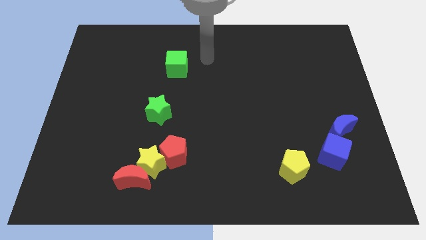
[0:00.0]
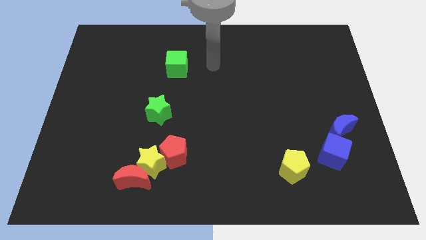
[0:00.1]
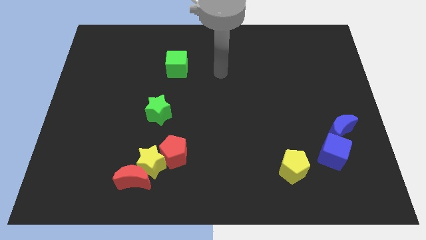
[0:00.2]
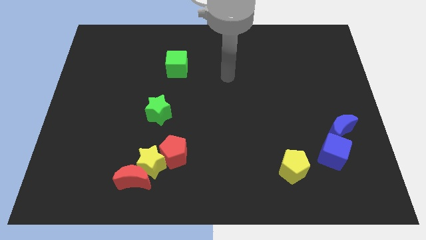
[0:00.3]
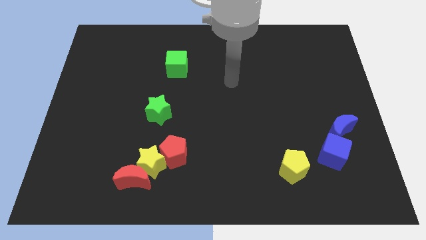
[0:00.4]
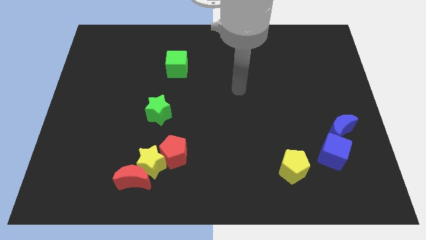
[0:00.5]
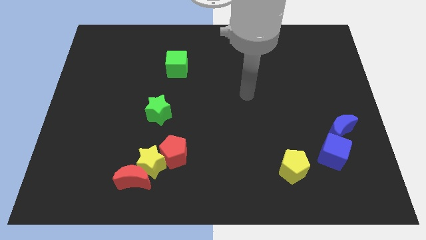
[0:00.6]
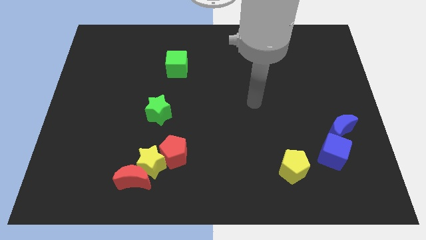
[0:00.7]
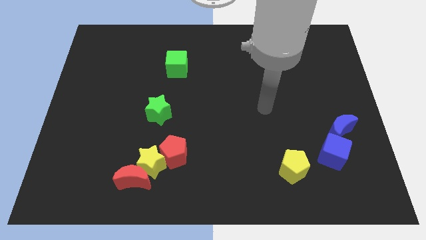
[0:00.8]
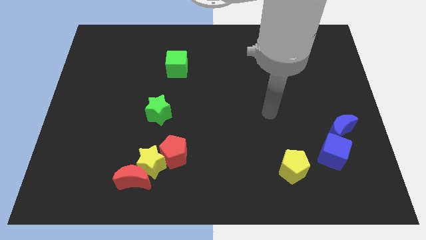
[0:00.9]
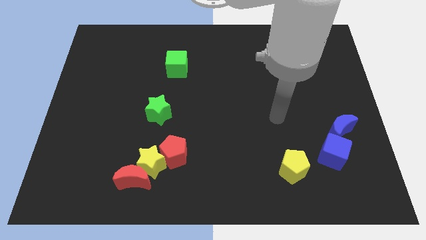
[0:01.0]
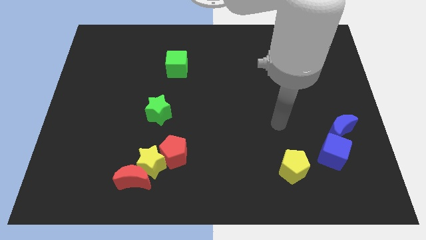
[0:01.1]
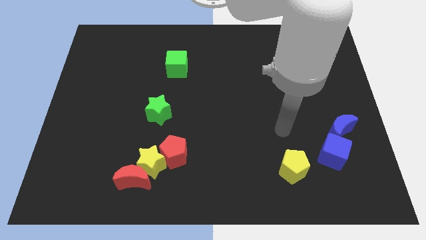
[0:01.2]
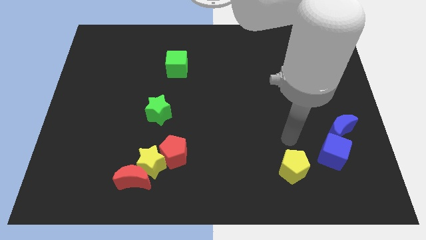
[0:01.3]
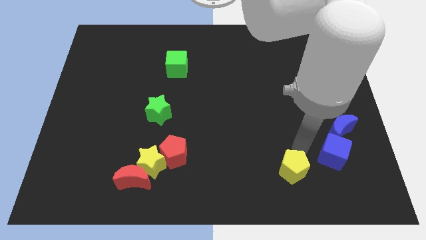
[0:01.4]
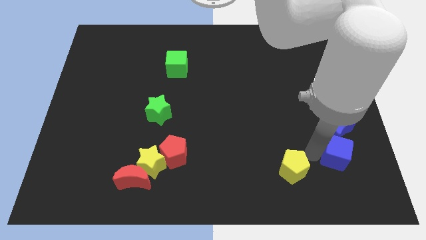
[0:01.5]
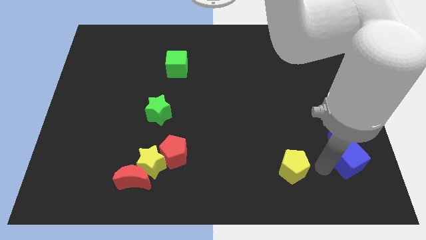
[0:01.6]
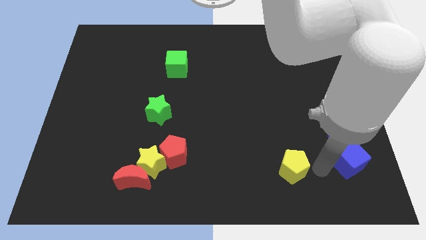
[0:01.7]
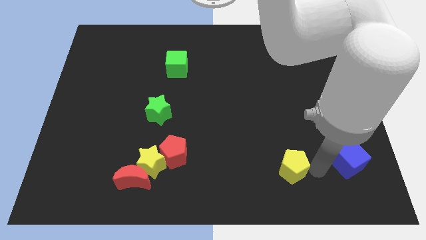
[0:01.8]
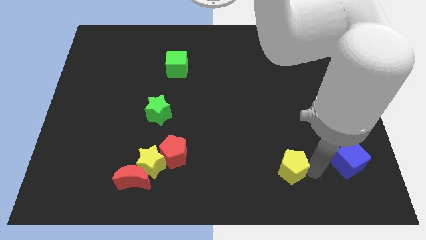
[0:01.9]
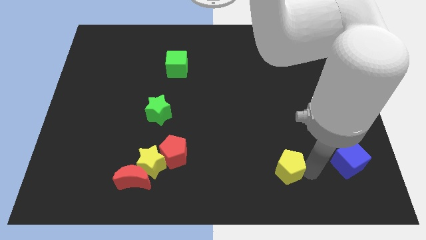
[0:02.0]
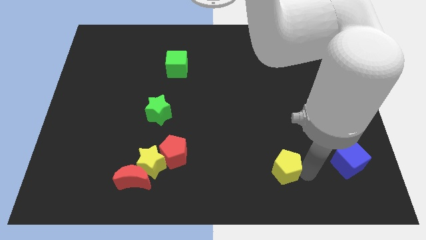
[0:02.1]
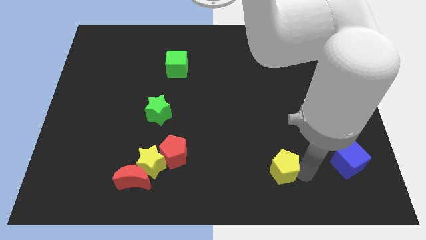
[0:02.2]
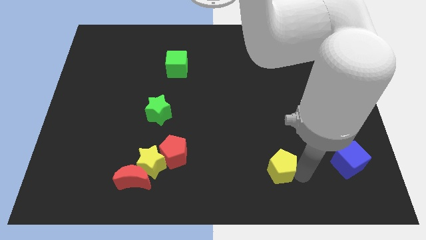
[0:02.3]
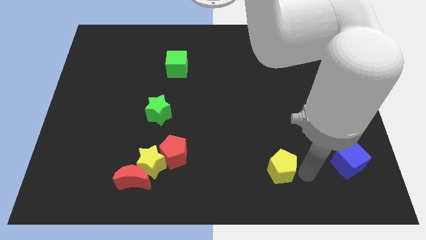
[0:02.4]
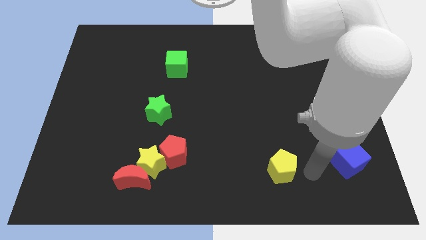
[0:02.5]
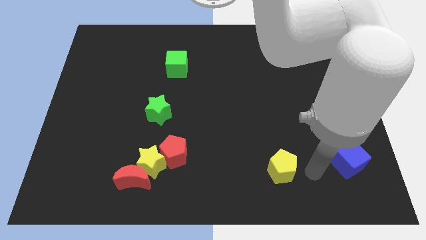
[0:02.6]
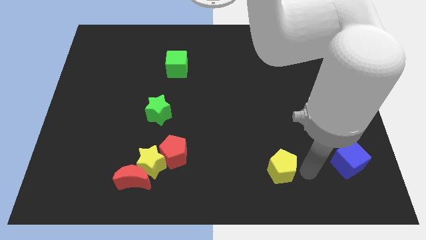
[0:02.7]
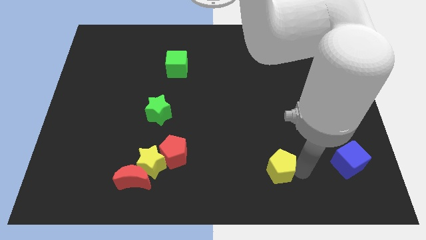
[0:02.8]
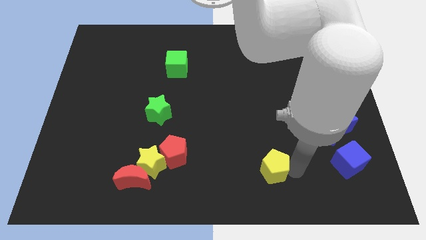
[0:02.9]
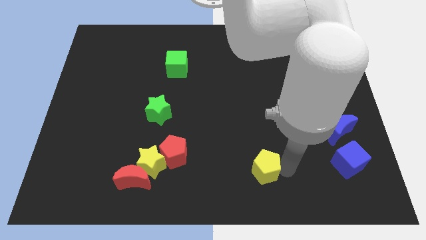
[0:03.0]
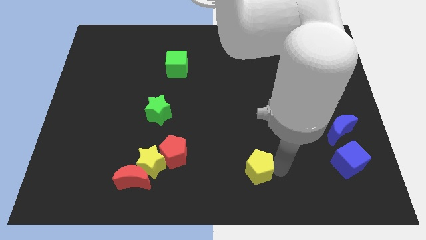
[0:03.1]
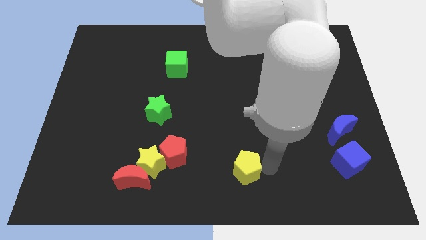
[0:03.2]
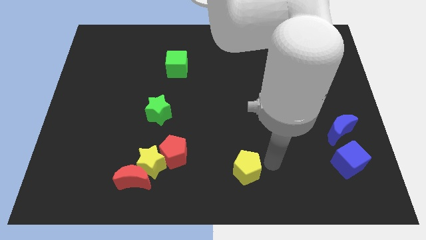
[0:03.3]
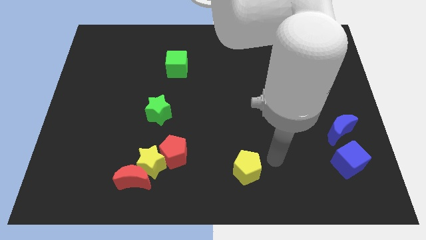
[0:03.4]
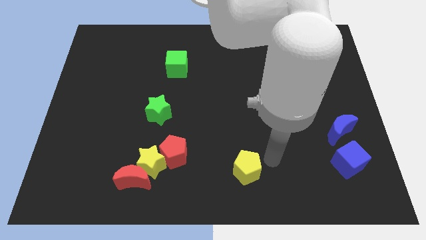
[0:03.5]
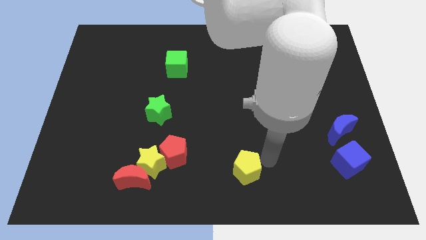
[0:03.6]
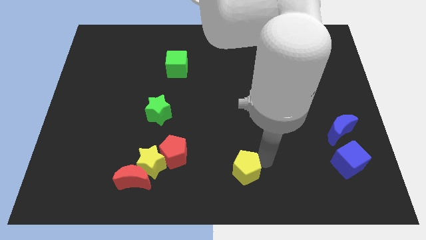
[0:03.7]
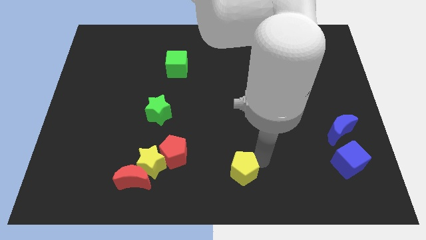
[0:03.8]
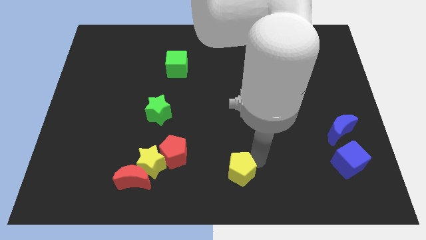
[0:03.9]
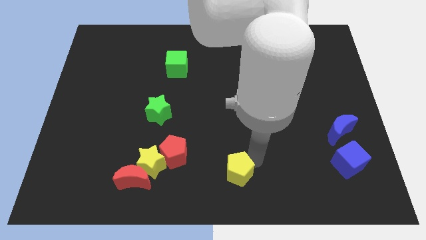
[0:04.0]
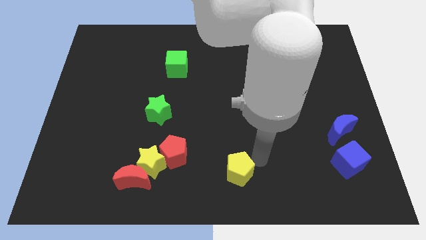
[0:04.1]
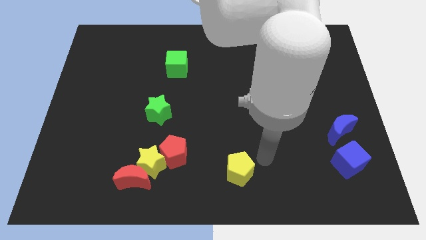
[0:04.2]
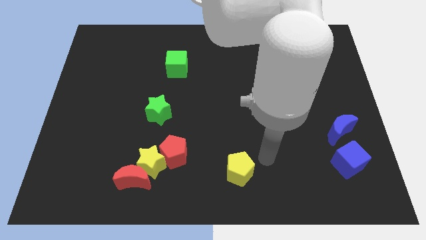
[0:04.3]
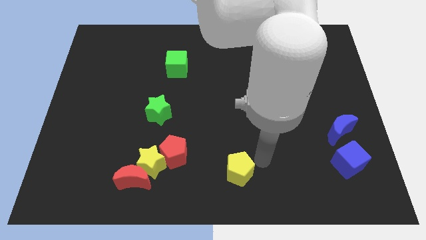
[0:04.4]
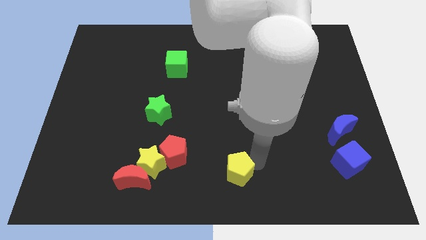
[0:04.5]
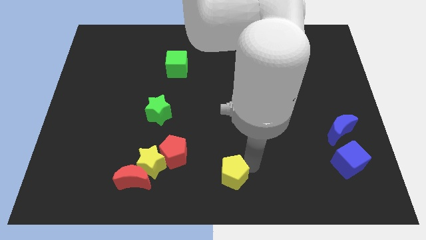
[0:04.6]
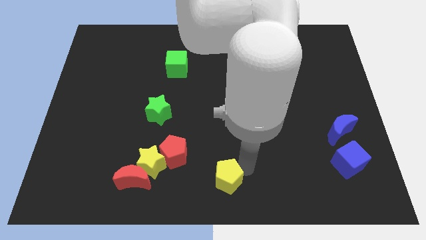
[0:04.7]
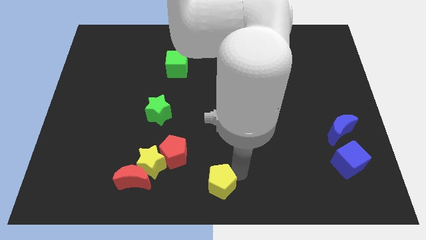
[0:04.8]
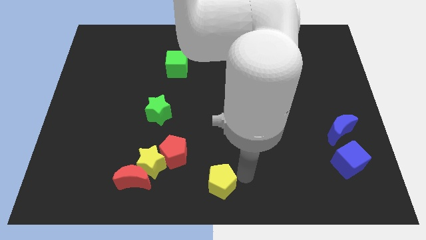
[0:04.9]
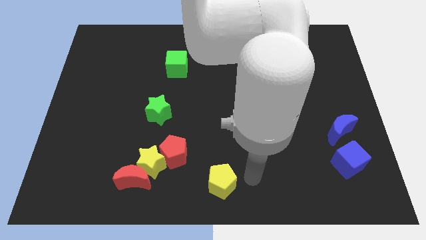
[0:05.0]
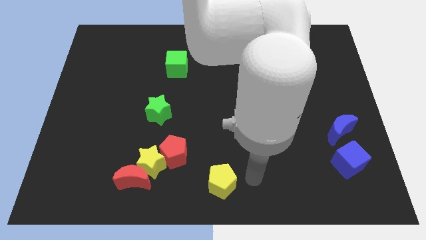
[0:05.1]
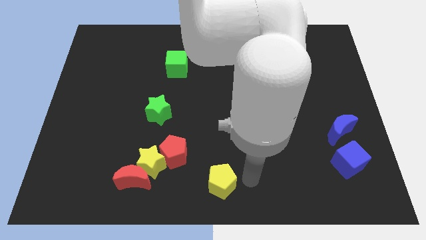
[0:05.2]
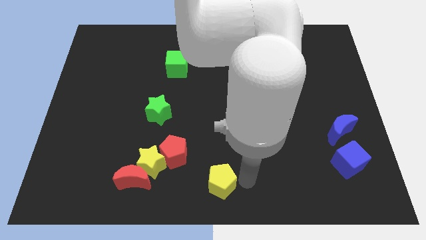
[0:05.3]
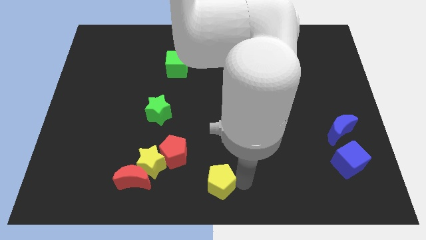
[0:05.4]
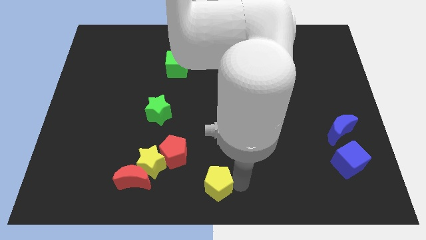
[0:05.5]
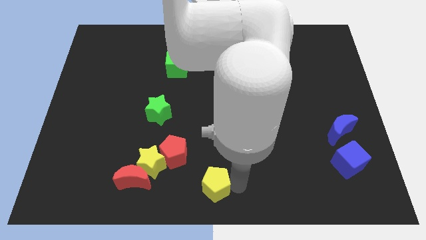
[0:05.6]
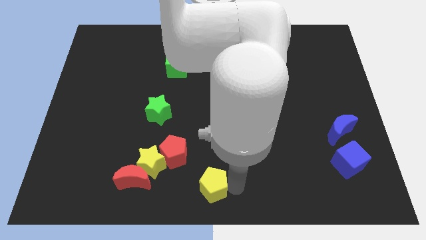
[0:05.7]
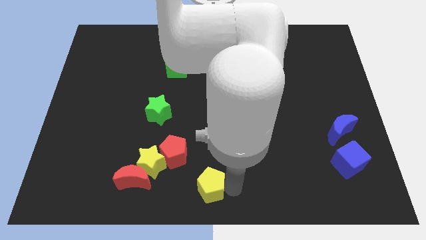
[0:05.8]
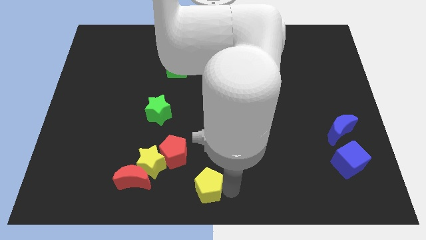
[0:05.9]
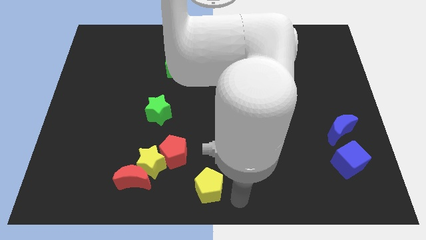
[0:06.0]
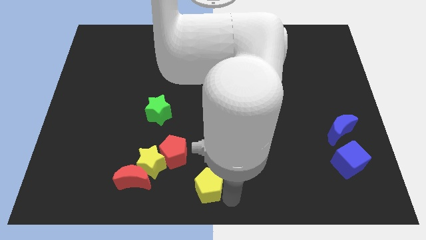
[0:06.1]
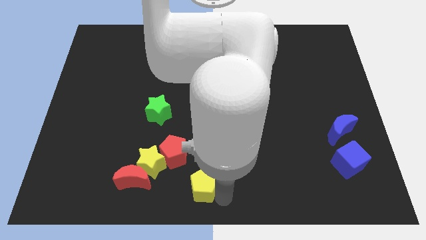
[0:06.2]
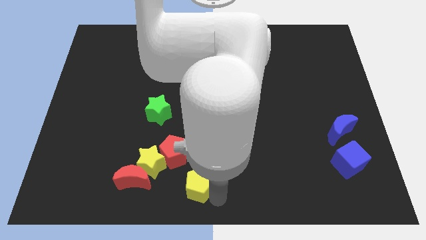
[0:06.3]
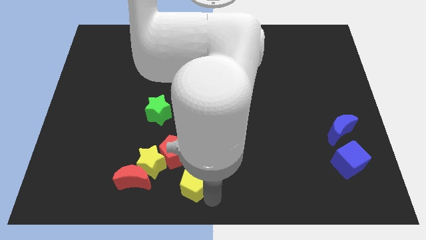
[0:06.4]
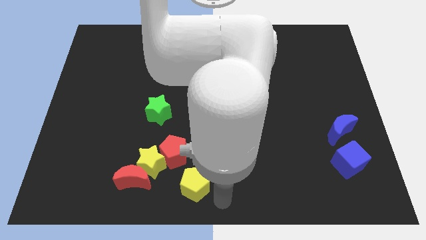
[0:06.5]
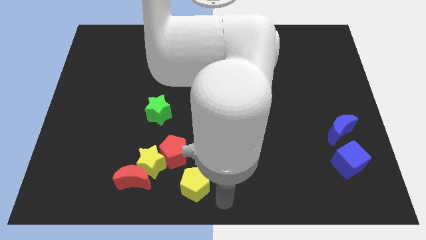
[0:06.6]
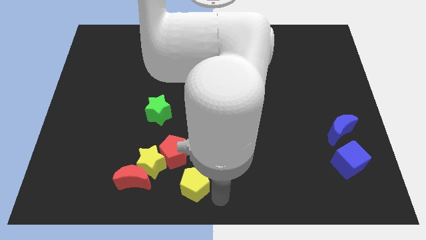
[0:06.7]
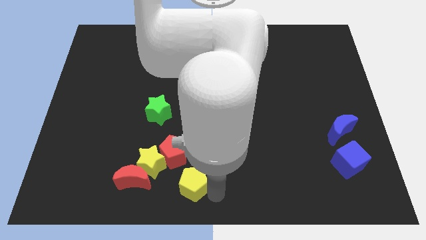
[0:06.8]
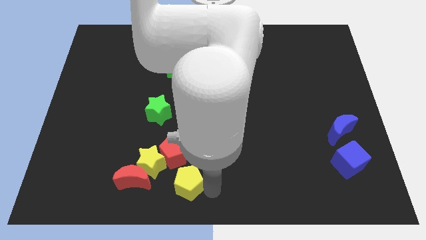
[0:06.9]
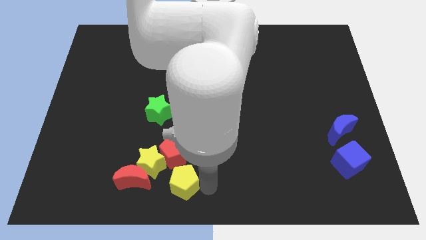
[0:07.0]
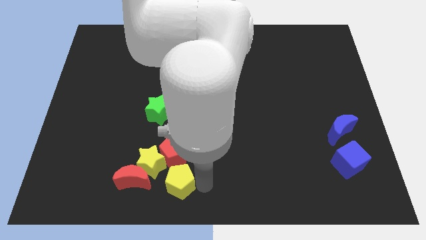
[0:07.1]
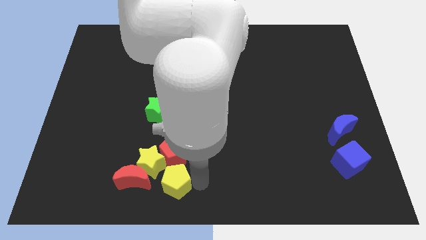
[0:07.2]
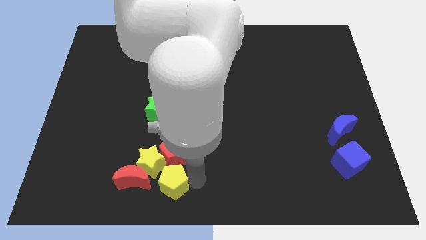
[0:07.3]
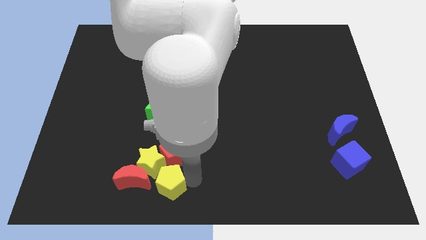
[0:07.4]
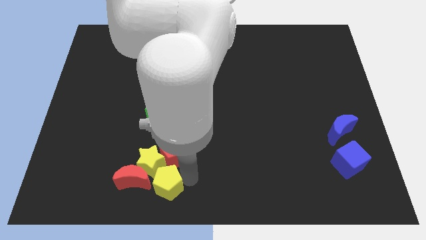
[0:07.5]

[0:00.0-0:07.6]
move the yellow pentagon to the yellow star
